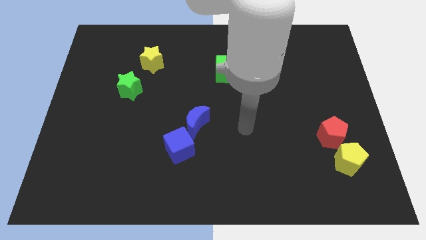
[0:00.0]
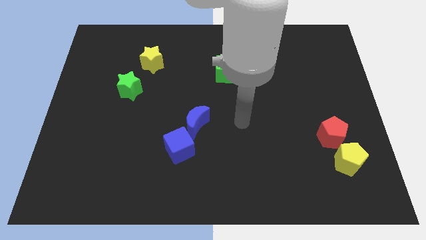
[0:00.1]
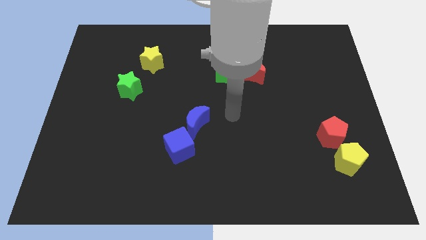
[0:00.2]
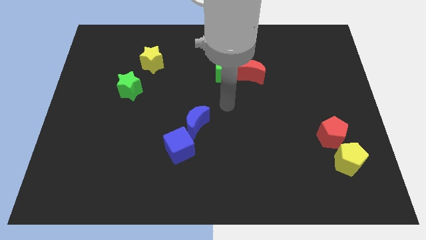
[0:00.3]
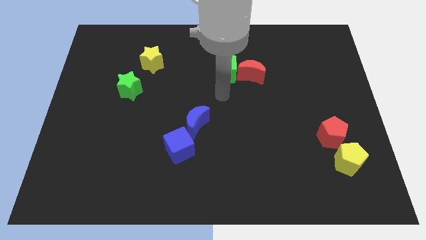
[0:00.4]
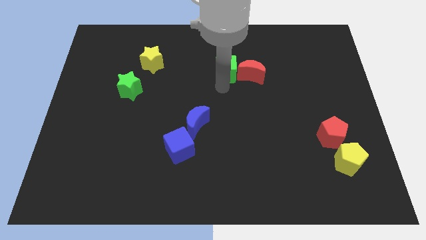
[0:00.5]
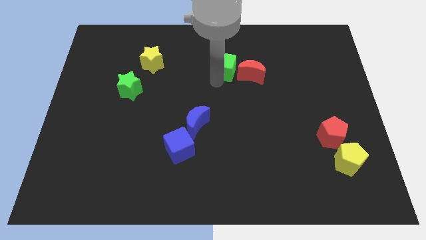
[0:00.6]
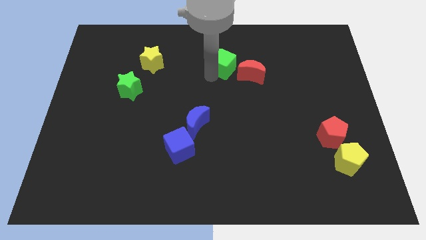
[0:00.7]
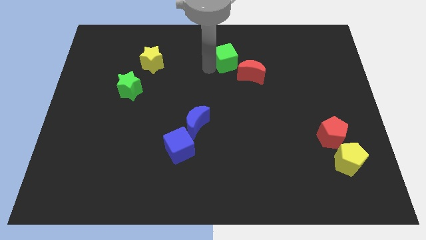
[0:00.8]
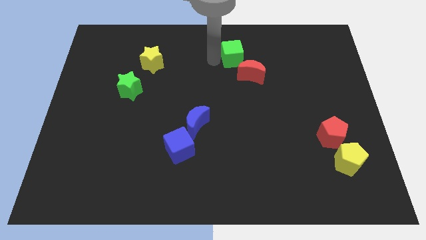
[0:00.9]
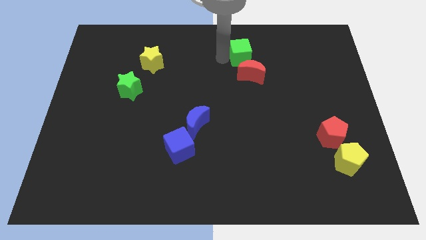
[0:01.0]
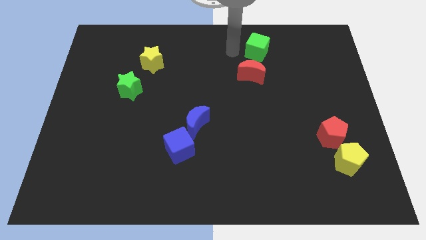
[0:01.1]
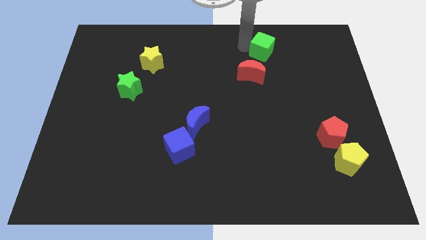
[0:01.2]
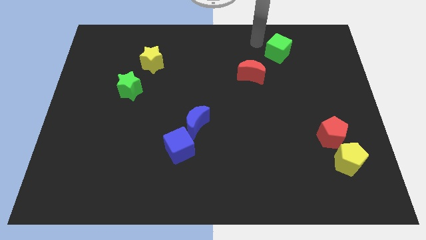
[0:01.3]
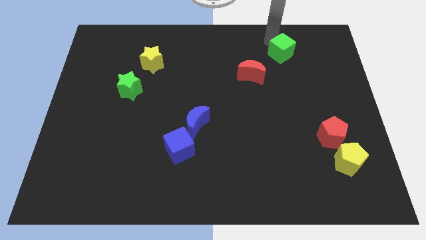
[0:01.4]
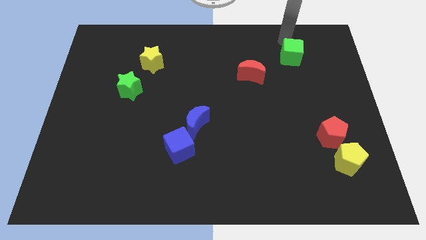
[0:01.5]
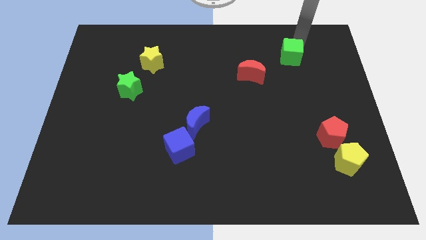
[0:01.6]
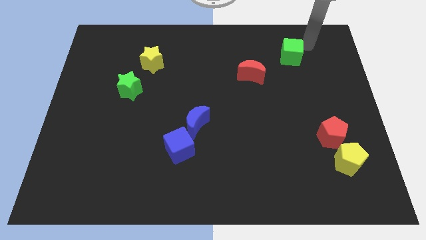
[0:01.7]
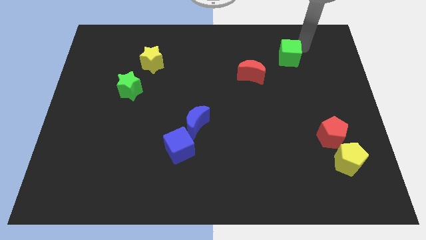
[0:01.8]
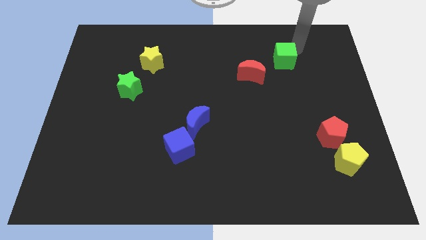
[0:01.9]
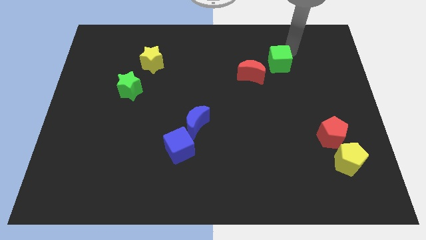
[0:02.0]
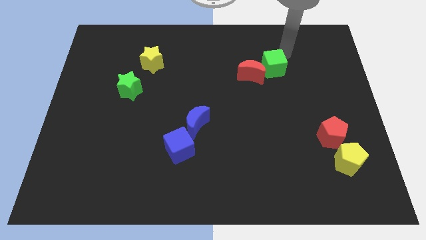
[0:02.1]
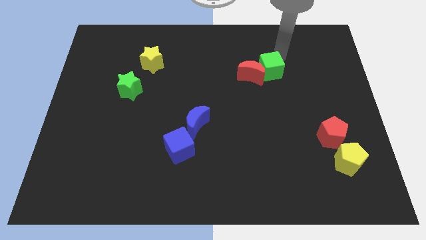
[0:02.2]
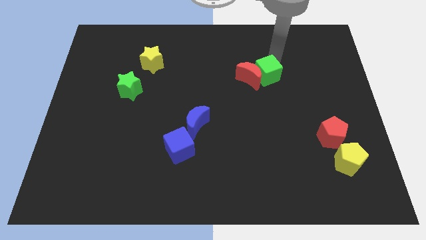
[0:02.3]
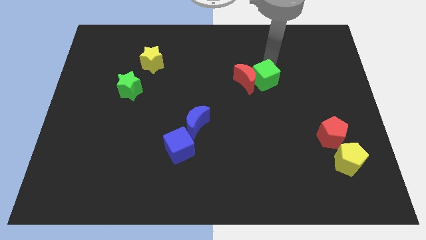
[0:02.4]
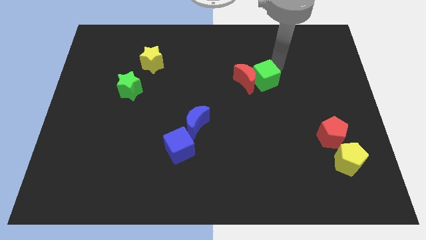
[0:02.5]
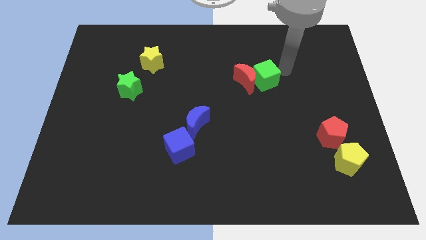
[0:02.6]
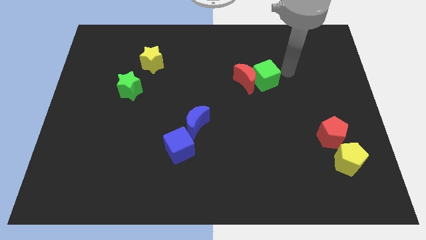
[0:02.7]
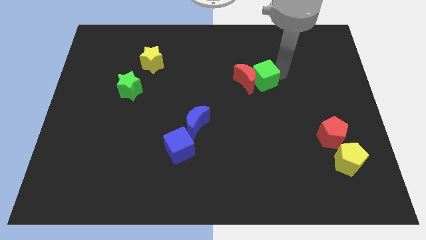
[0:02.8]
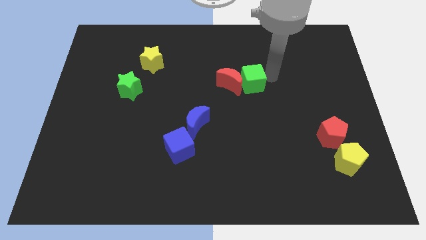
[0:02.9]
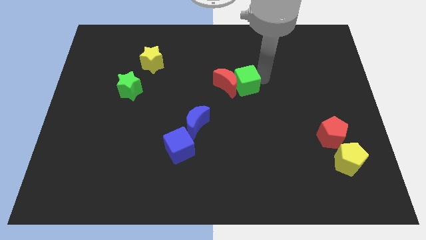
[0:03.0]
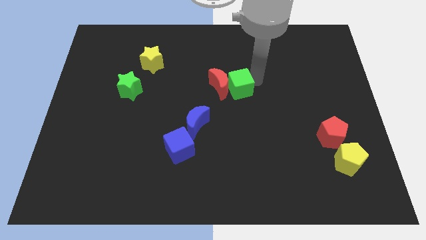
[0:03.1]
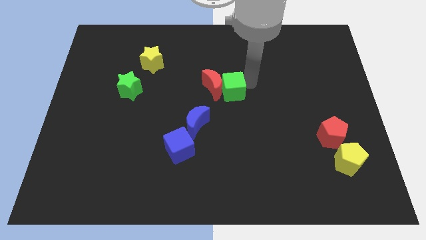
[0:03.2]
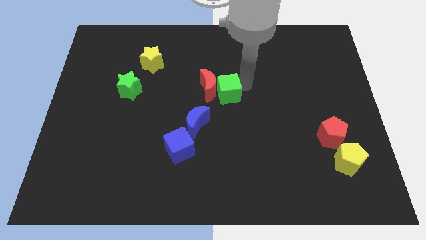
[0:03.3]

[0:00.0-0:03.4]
slide the green cube somewhat downwards

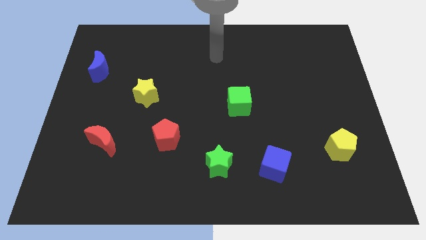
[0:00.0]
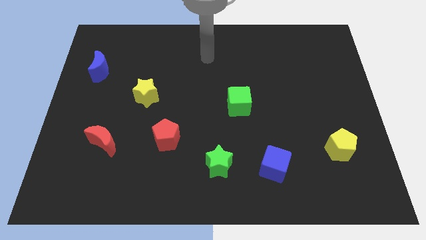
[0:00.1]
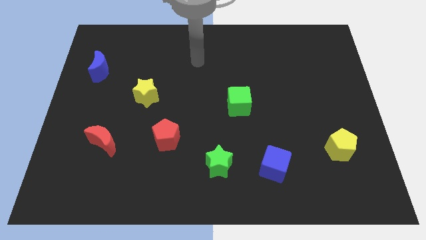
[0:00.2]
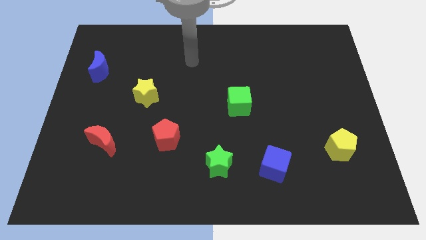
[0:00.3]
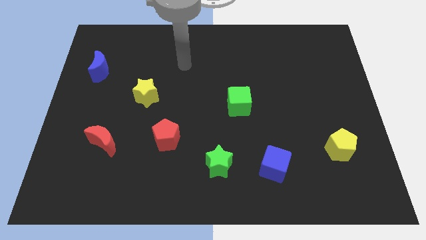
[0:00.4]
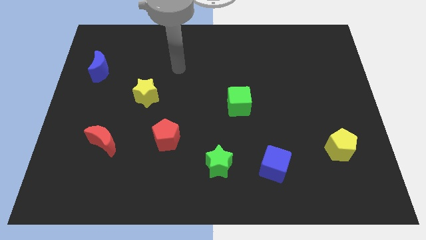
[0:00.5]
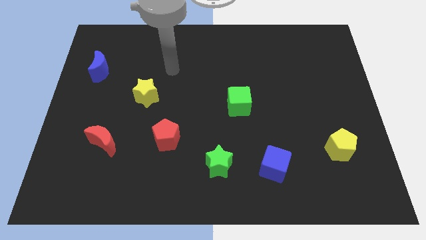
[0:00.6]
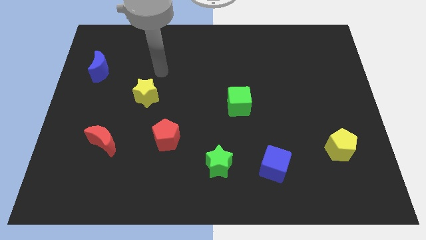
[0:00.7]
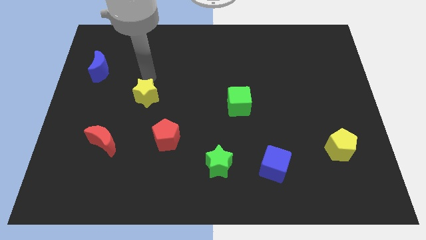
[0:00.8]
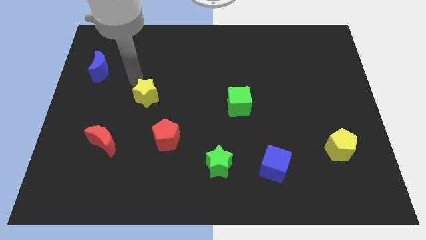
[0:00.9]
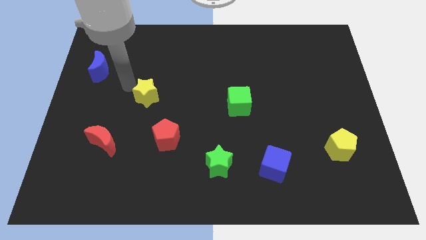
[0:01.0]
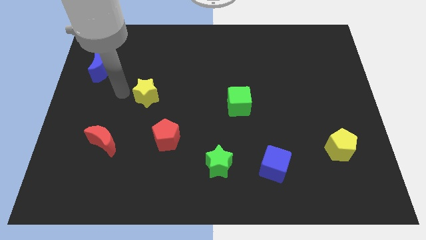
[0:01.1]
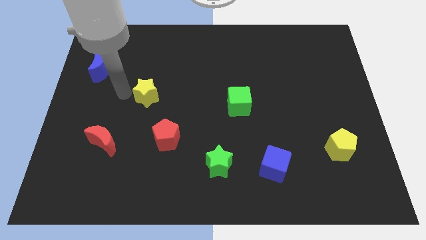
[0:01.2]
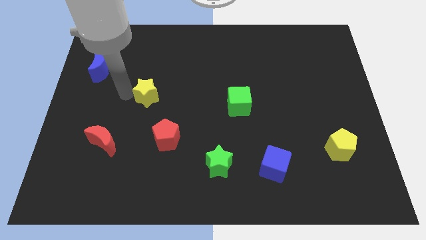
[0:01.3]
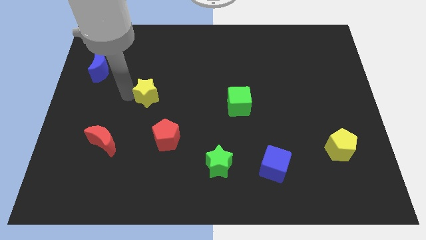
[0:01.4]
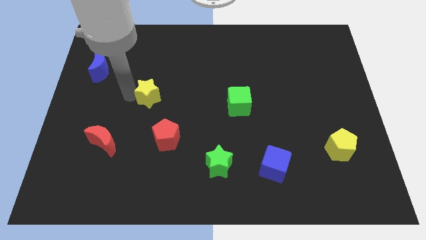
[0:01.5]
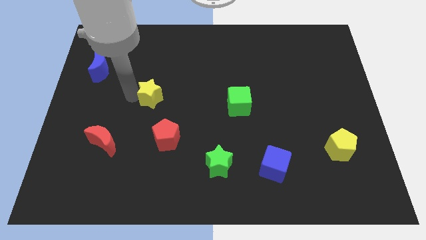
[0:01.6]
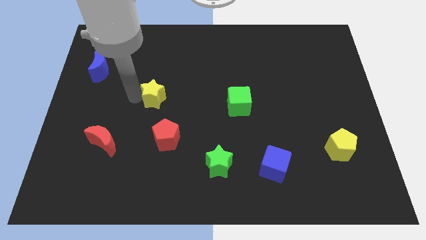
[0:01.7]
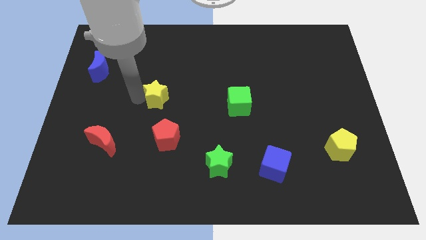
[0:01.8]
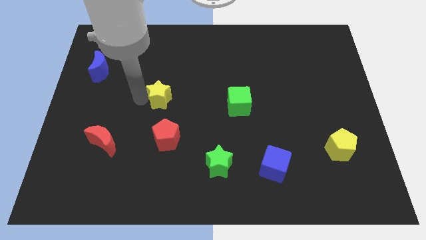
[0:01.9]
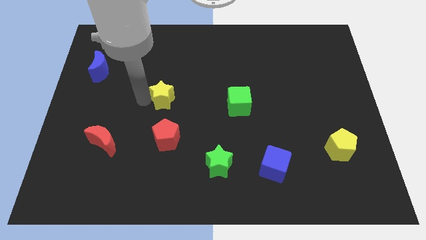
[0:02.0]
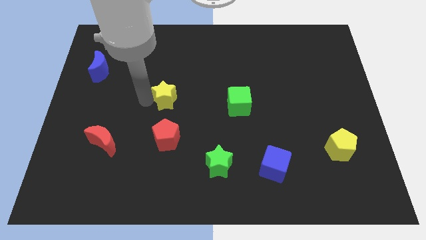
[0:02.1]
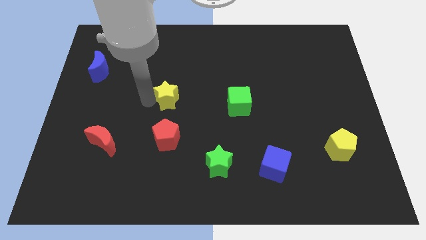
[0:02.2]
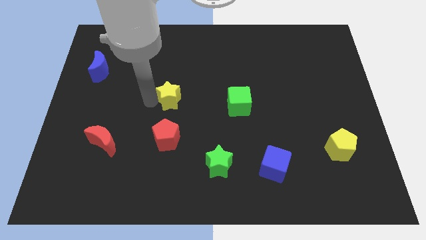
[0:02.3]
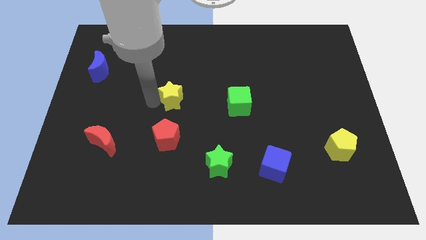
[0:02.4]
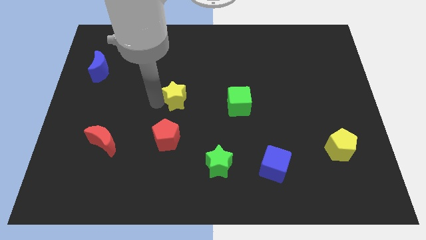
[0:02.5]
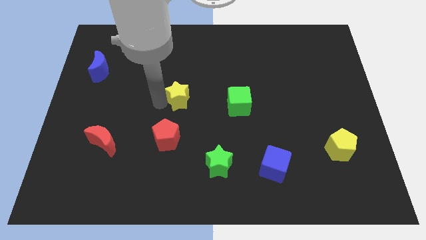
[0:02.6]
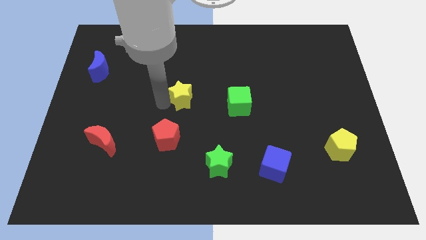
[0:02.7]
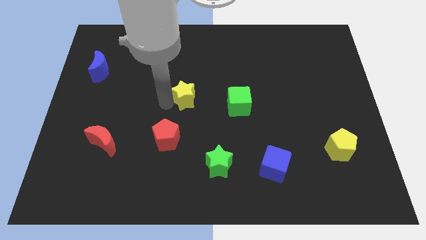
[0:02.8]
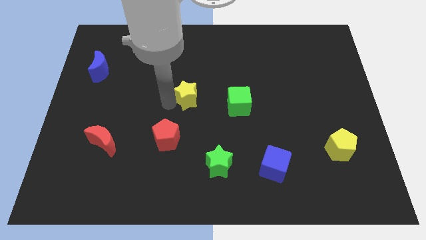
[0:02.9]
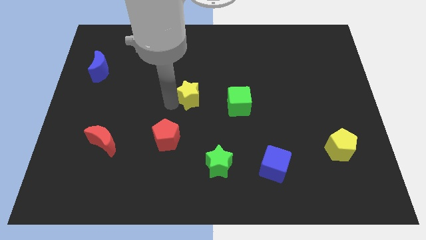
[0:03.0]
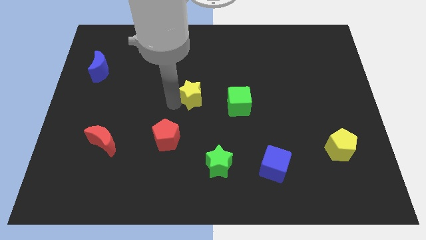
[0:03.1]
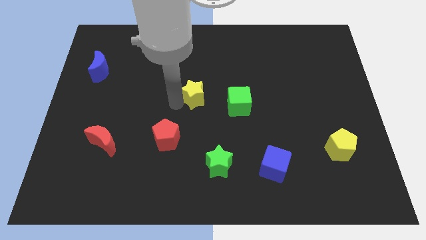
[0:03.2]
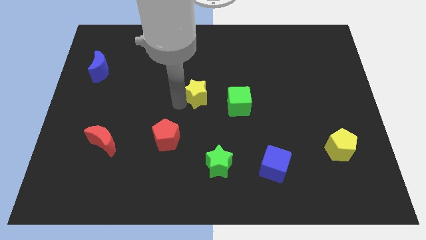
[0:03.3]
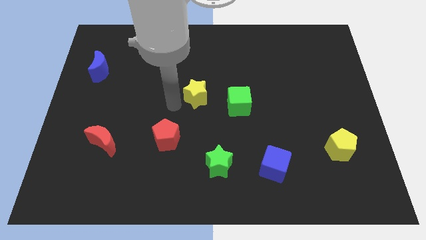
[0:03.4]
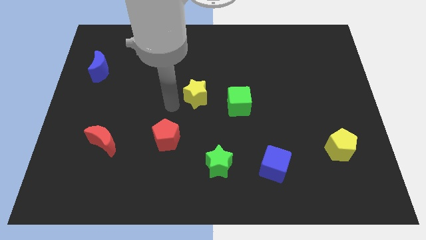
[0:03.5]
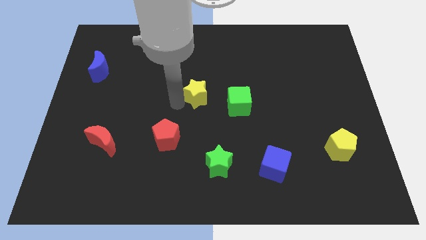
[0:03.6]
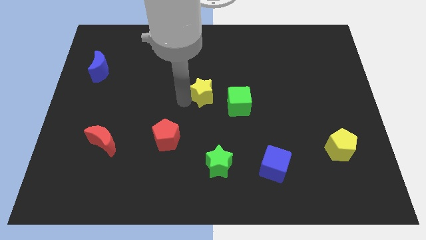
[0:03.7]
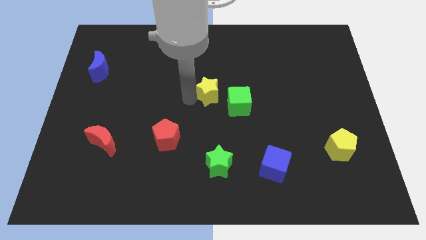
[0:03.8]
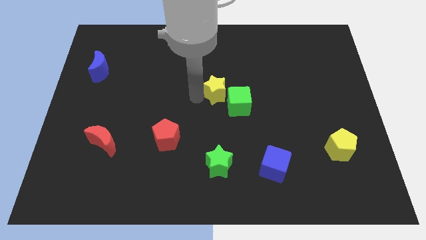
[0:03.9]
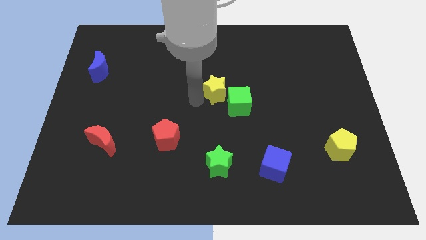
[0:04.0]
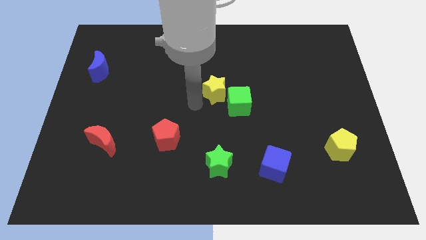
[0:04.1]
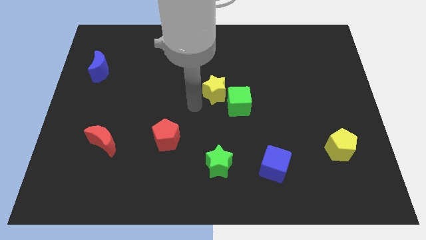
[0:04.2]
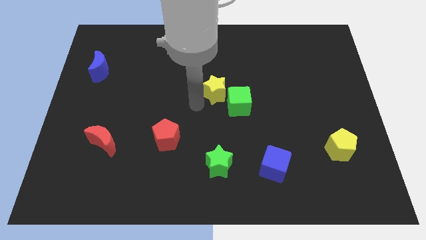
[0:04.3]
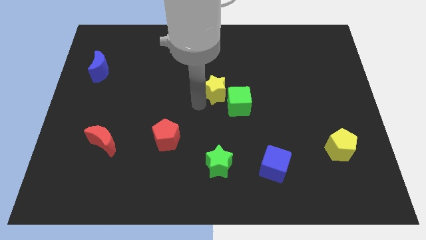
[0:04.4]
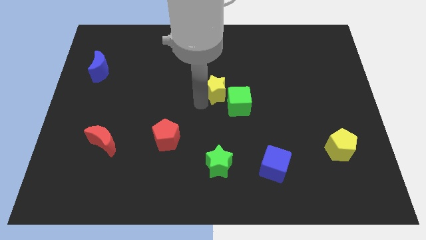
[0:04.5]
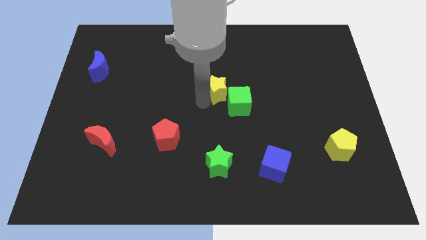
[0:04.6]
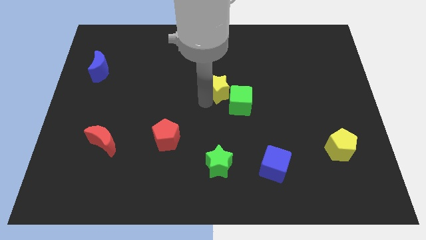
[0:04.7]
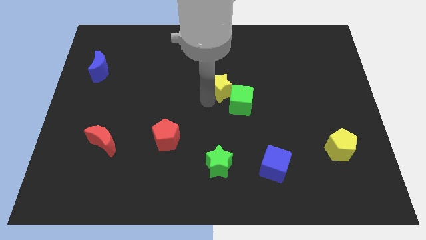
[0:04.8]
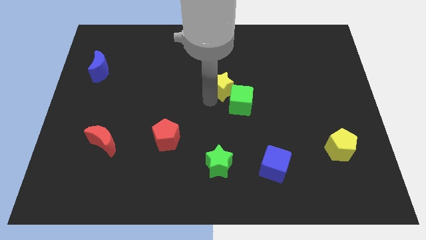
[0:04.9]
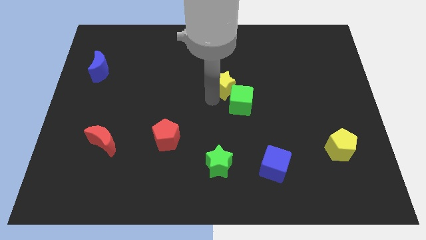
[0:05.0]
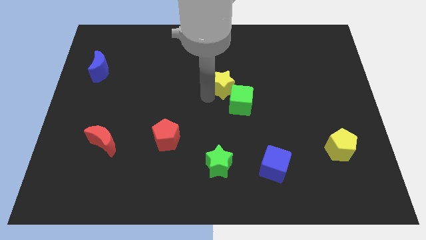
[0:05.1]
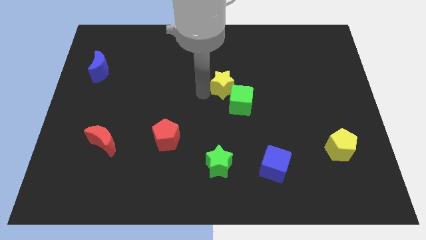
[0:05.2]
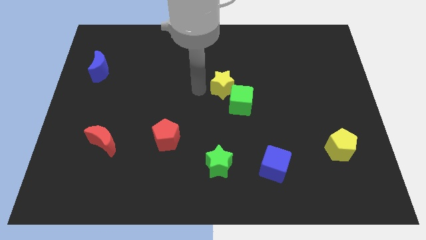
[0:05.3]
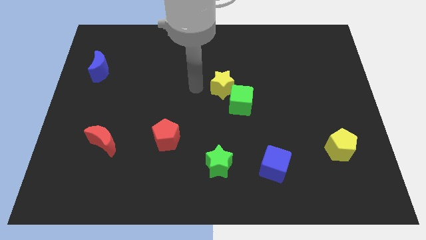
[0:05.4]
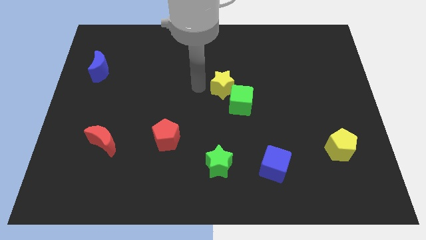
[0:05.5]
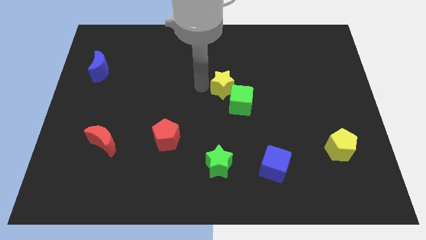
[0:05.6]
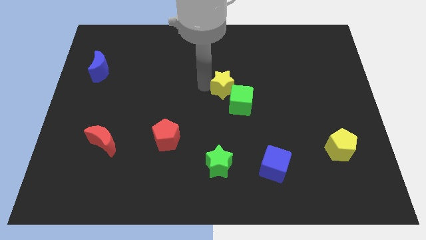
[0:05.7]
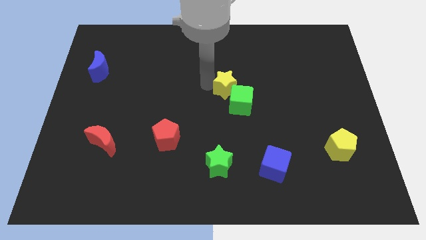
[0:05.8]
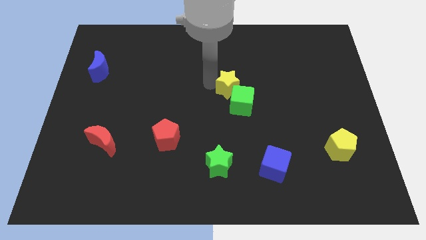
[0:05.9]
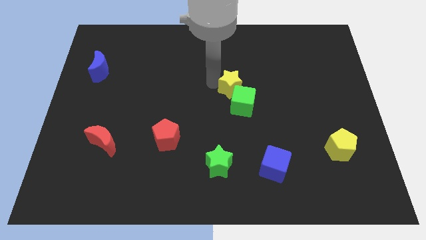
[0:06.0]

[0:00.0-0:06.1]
push the yellow star to the right
